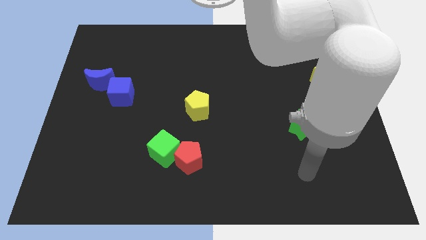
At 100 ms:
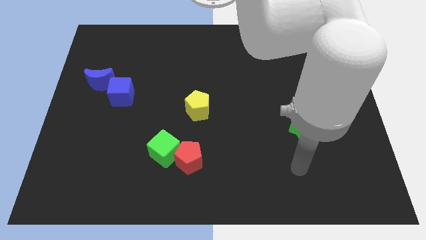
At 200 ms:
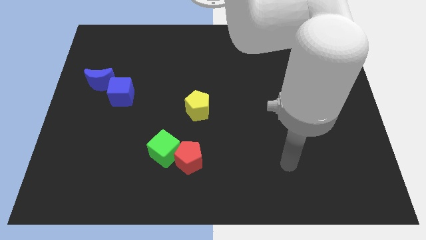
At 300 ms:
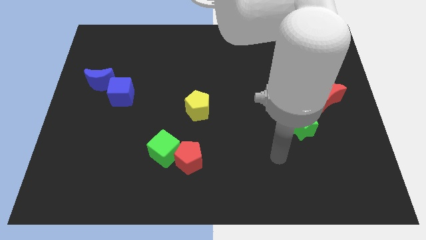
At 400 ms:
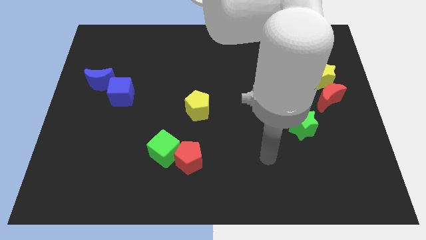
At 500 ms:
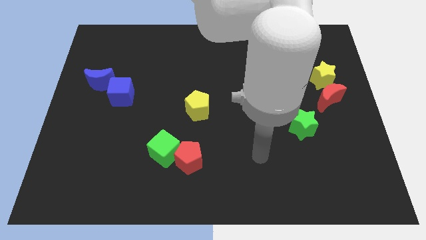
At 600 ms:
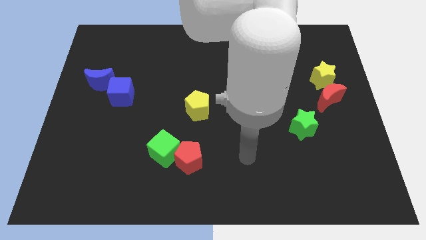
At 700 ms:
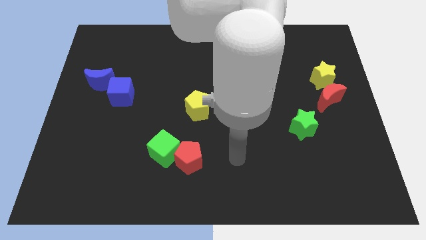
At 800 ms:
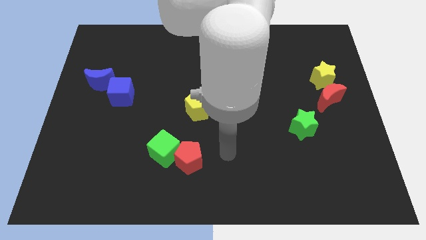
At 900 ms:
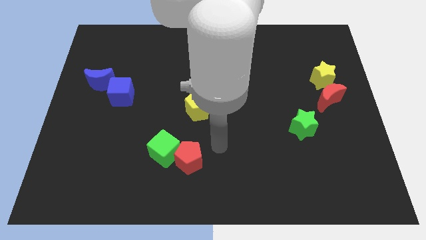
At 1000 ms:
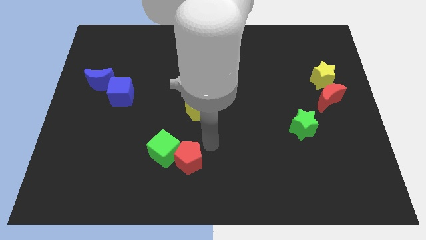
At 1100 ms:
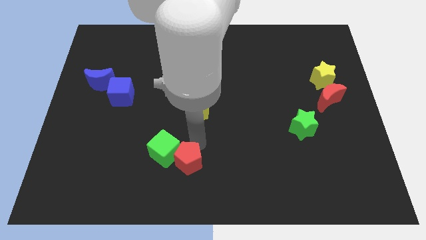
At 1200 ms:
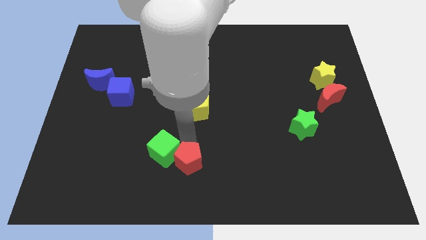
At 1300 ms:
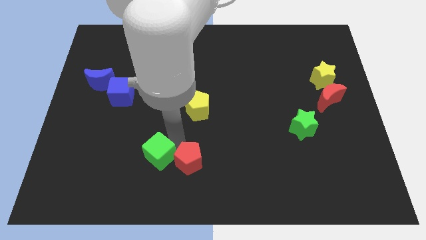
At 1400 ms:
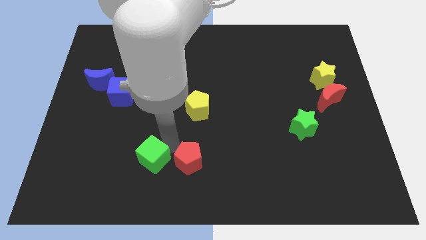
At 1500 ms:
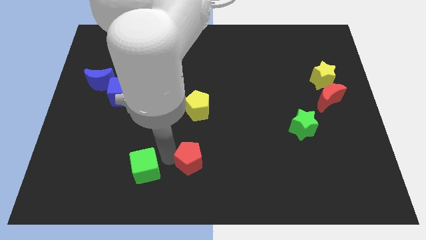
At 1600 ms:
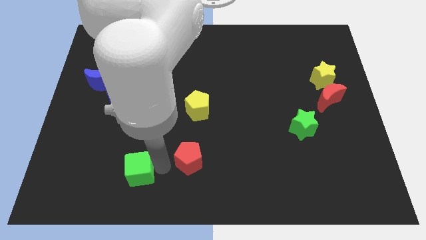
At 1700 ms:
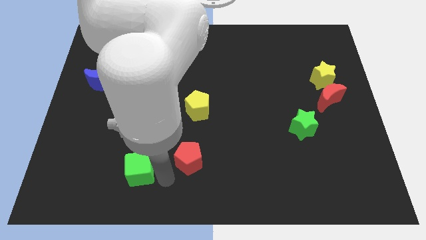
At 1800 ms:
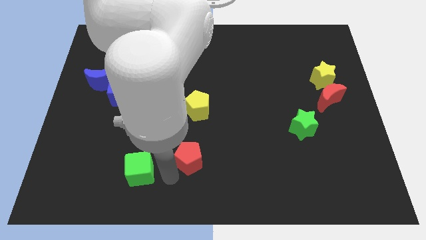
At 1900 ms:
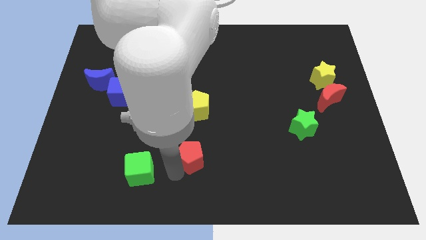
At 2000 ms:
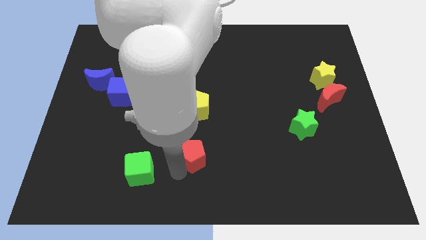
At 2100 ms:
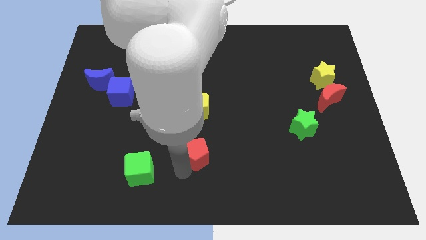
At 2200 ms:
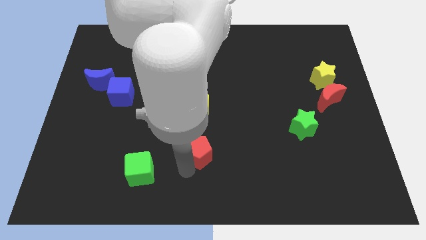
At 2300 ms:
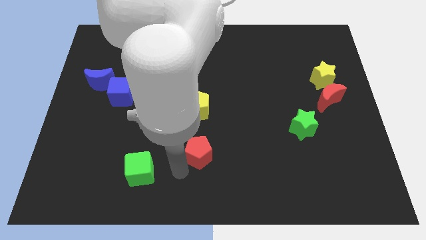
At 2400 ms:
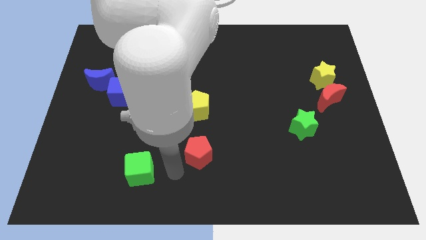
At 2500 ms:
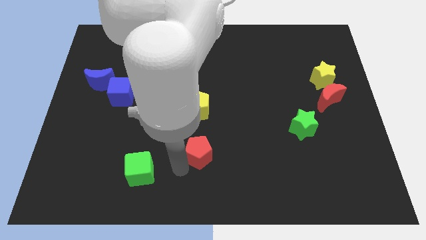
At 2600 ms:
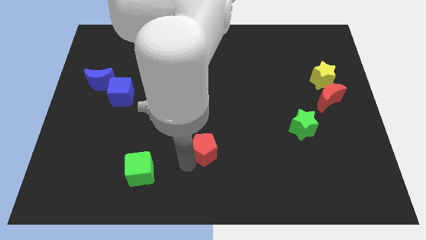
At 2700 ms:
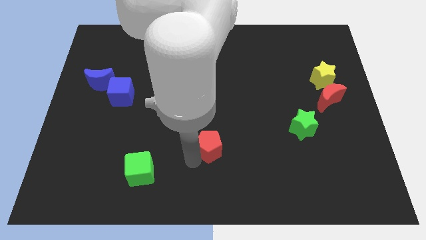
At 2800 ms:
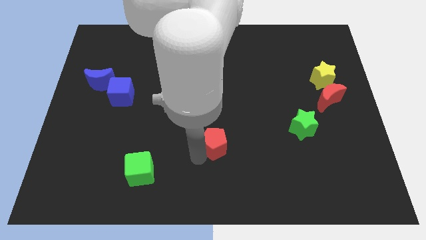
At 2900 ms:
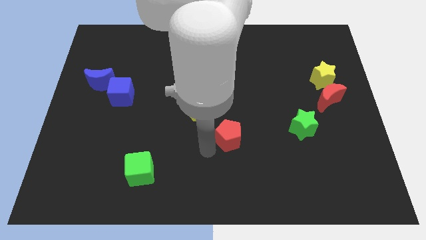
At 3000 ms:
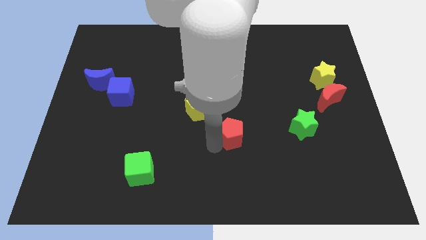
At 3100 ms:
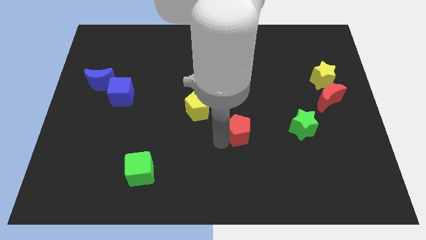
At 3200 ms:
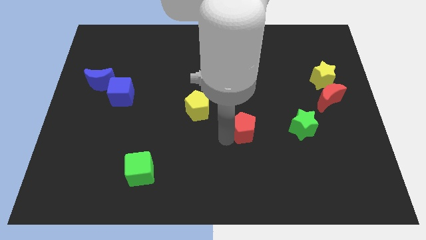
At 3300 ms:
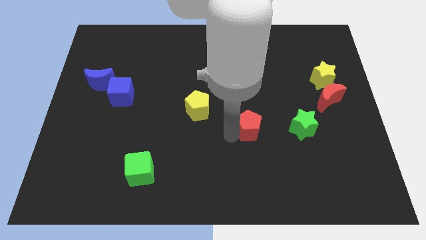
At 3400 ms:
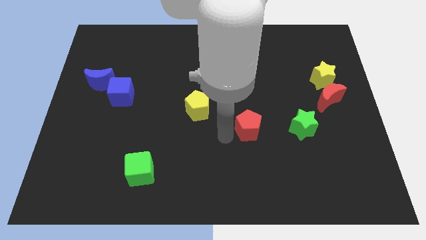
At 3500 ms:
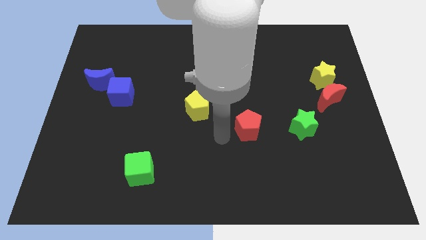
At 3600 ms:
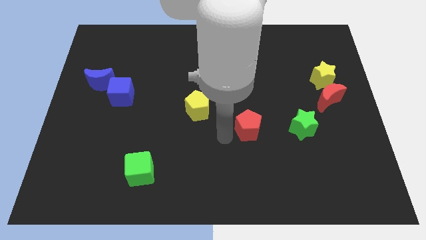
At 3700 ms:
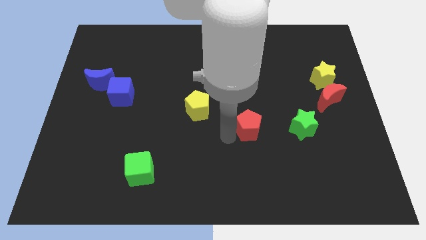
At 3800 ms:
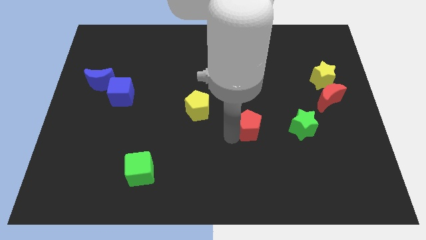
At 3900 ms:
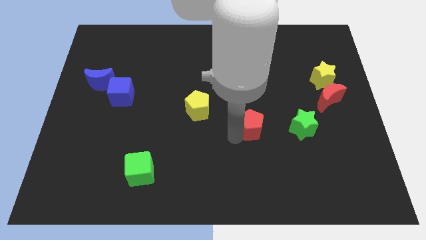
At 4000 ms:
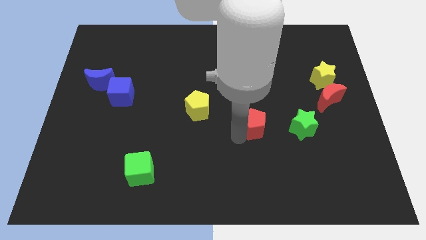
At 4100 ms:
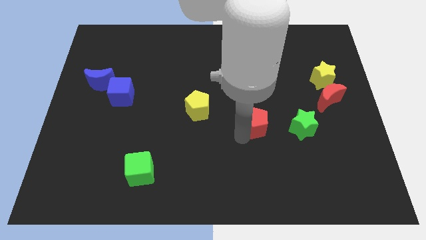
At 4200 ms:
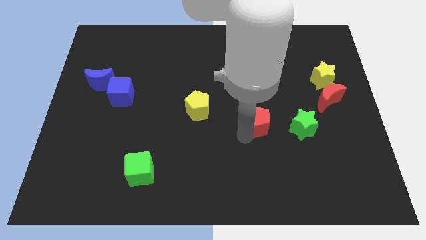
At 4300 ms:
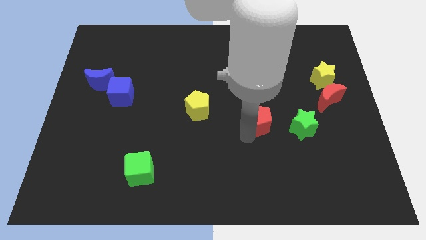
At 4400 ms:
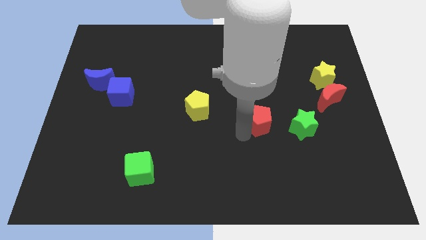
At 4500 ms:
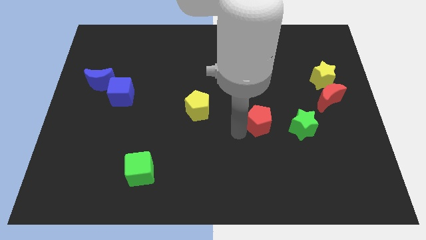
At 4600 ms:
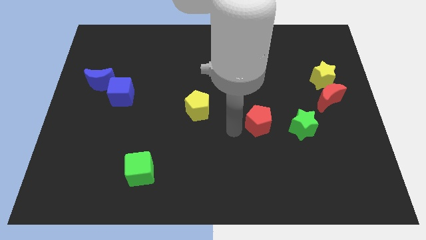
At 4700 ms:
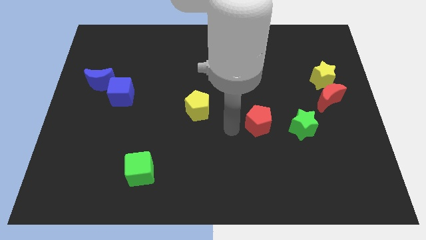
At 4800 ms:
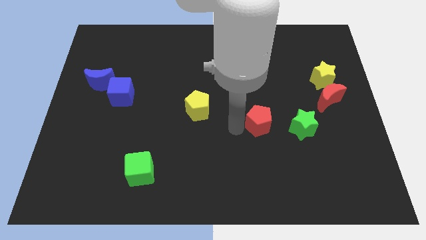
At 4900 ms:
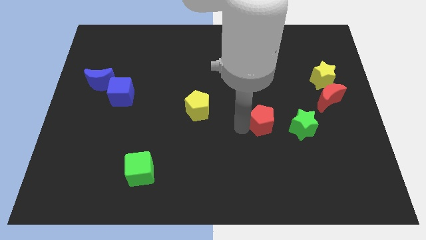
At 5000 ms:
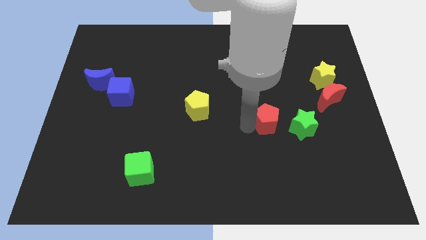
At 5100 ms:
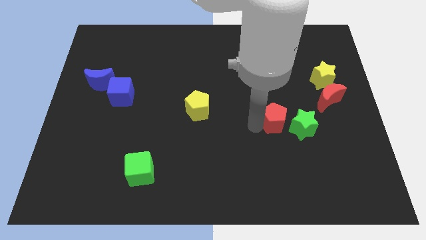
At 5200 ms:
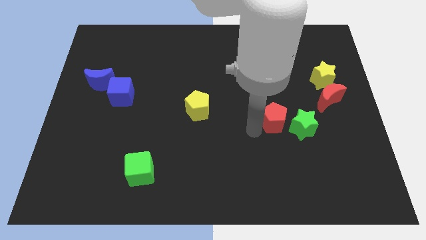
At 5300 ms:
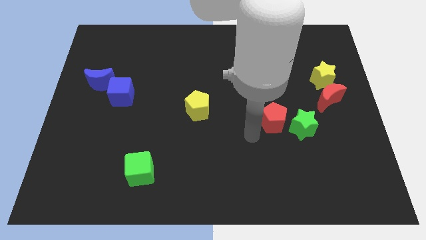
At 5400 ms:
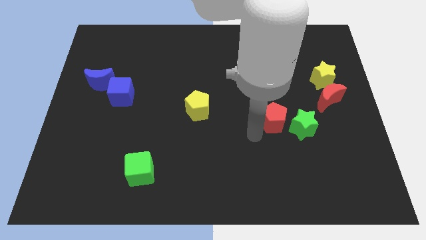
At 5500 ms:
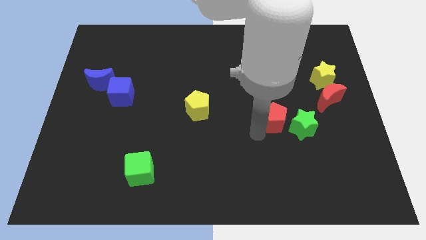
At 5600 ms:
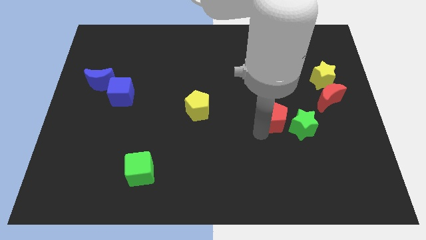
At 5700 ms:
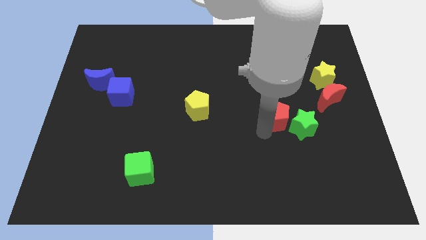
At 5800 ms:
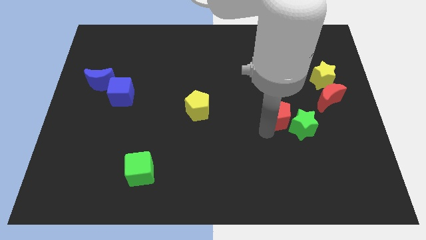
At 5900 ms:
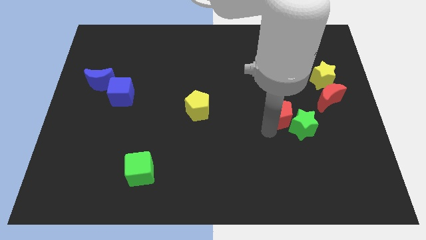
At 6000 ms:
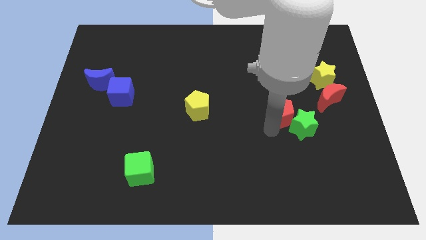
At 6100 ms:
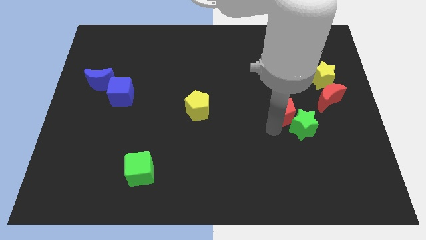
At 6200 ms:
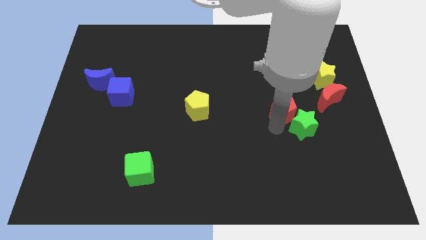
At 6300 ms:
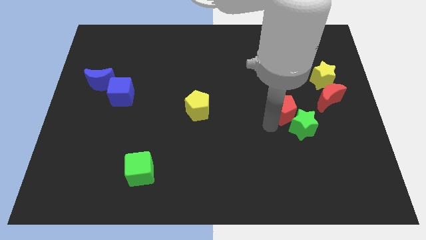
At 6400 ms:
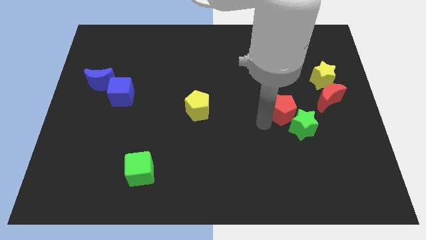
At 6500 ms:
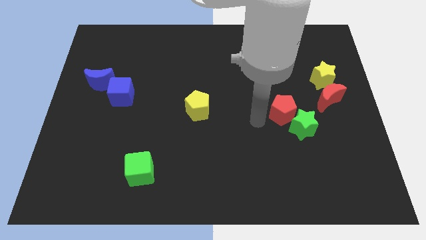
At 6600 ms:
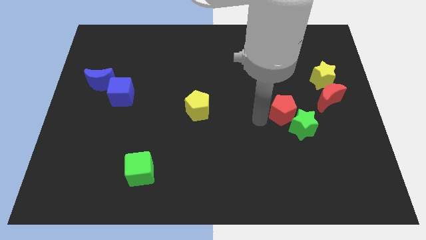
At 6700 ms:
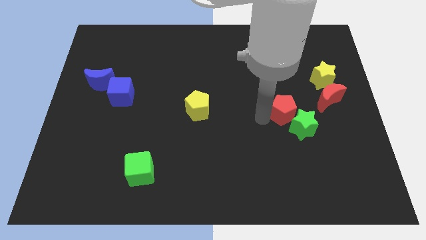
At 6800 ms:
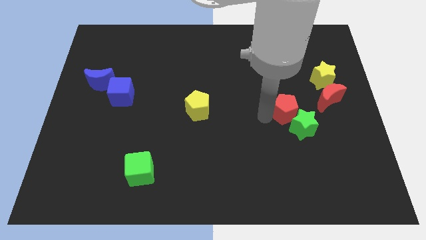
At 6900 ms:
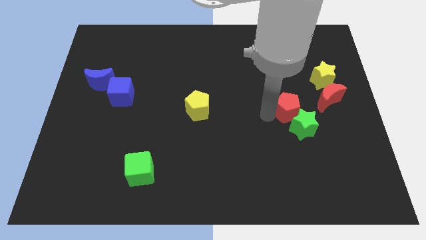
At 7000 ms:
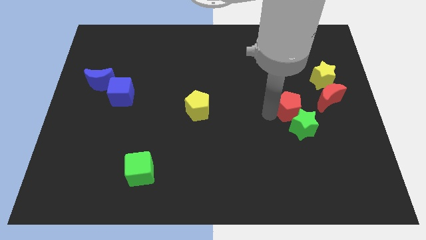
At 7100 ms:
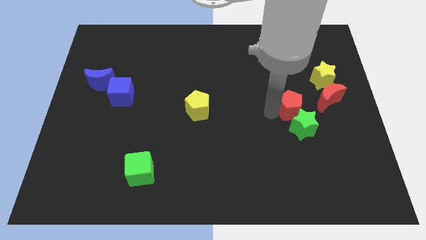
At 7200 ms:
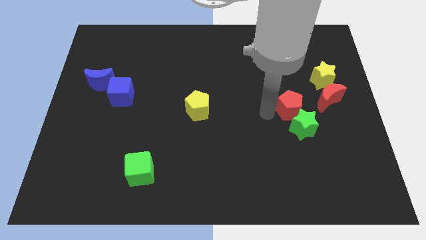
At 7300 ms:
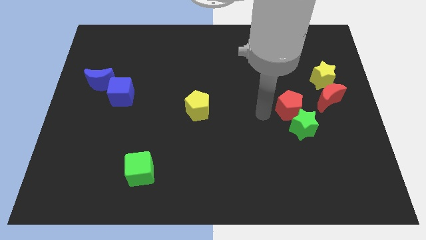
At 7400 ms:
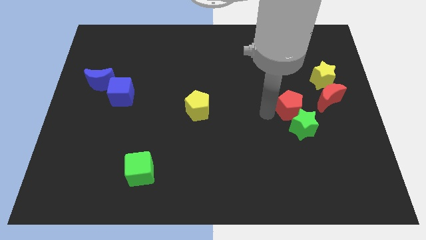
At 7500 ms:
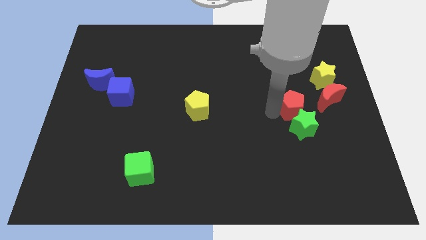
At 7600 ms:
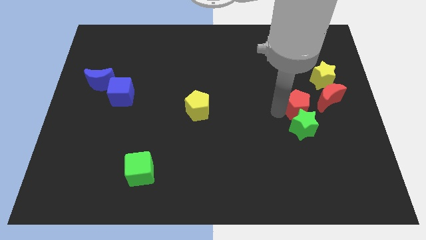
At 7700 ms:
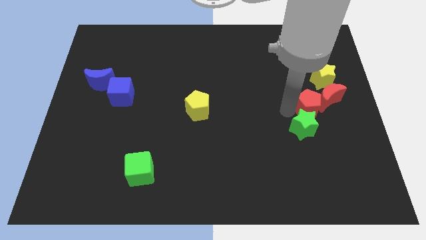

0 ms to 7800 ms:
move the red pentagon to the red moon
